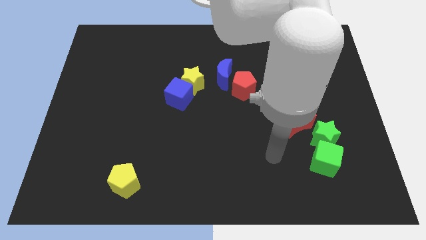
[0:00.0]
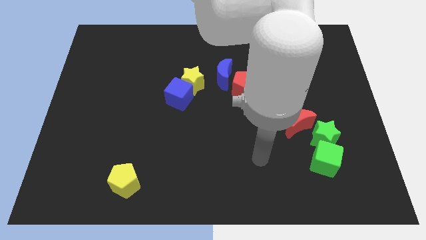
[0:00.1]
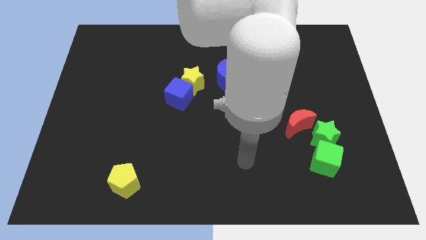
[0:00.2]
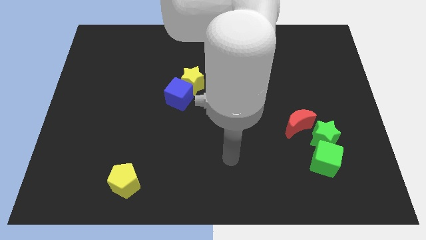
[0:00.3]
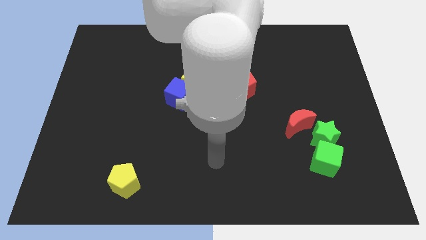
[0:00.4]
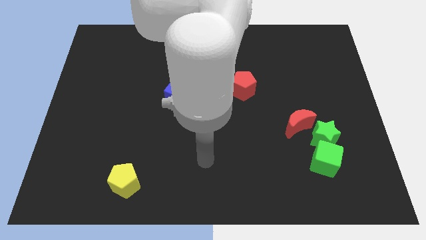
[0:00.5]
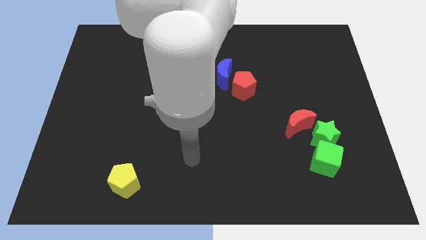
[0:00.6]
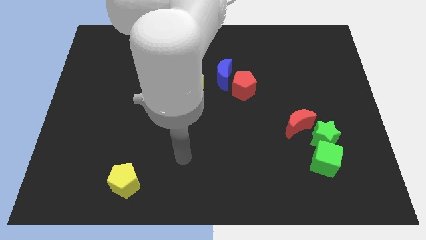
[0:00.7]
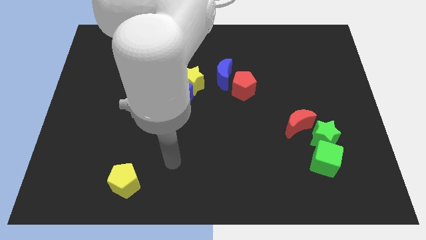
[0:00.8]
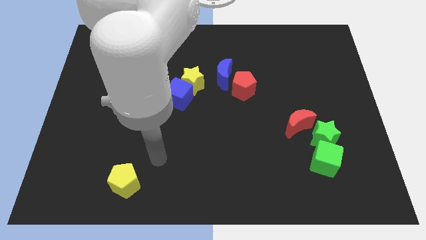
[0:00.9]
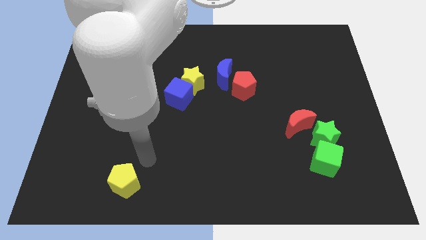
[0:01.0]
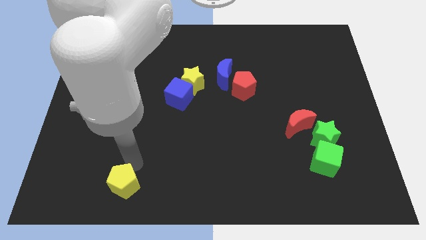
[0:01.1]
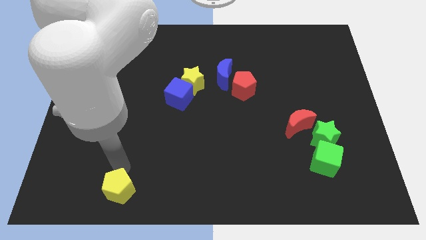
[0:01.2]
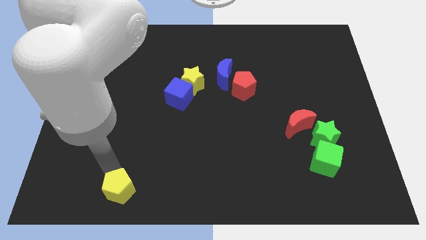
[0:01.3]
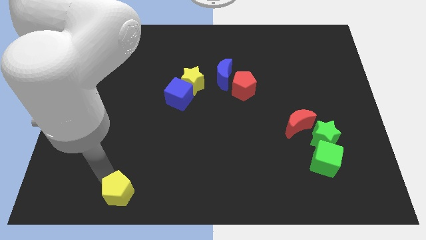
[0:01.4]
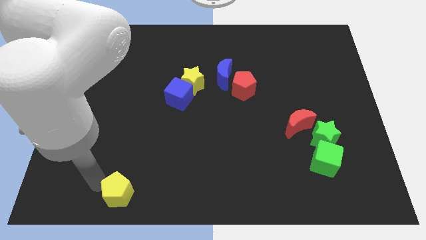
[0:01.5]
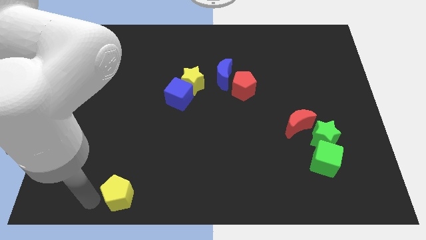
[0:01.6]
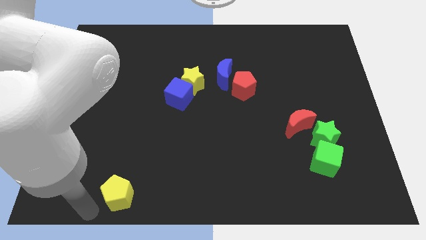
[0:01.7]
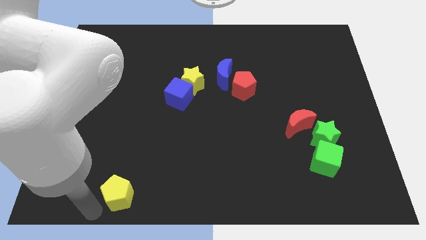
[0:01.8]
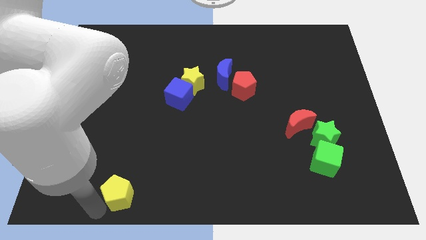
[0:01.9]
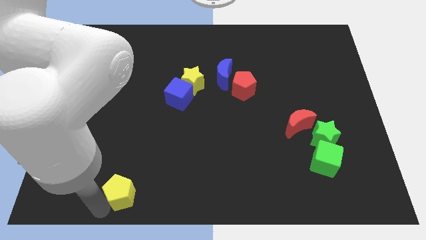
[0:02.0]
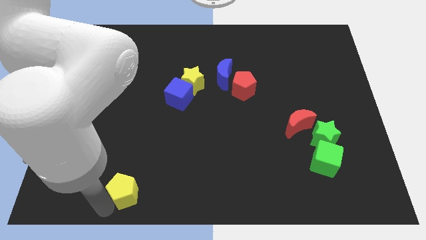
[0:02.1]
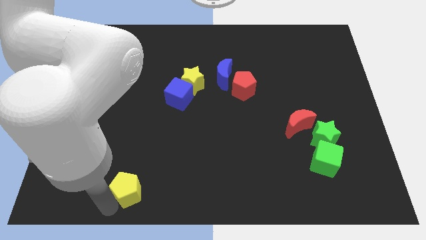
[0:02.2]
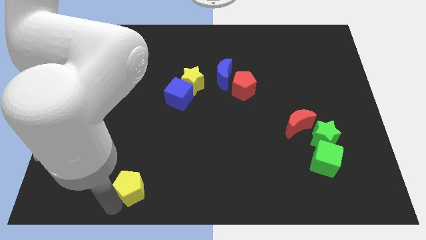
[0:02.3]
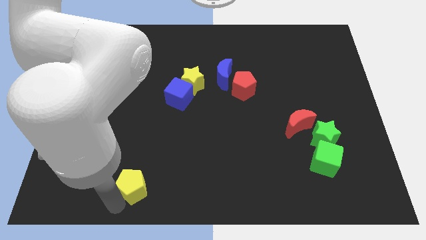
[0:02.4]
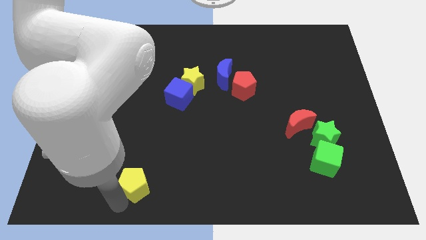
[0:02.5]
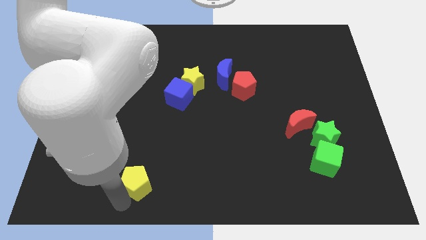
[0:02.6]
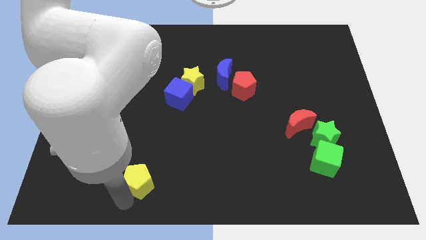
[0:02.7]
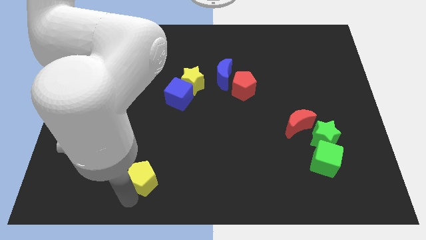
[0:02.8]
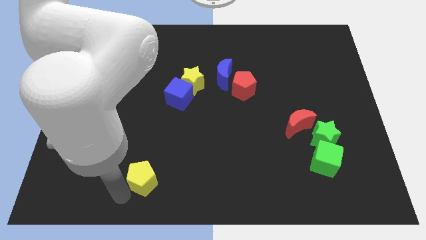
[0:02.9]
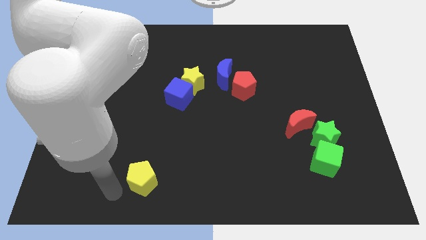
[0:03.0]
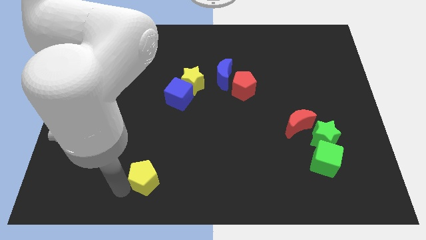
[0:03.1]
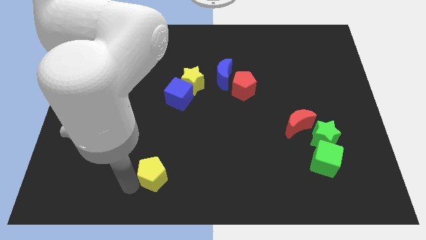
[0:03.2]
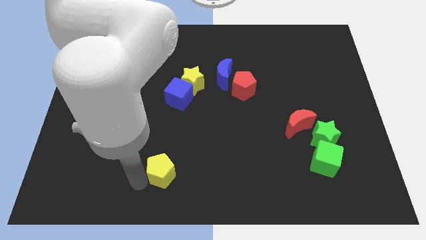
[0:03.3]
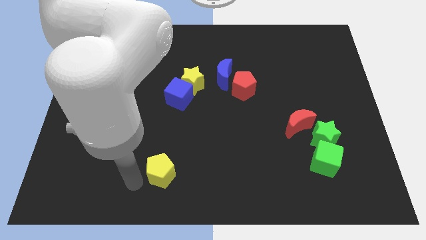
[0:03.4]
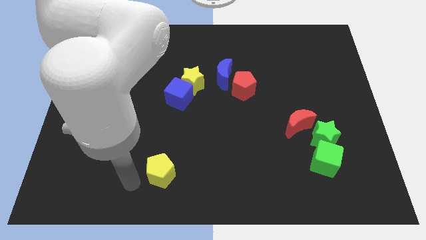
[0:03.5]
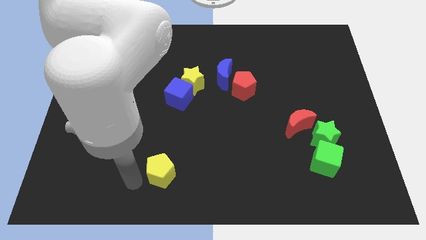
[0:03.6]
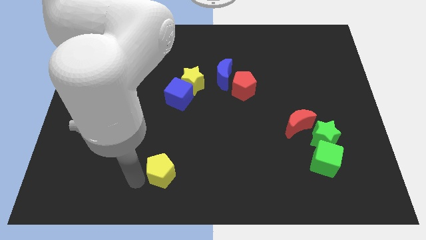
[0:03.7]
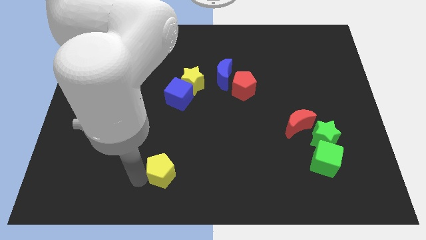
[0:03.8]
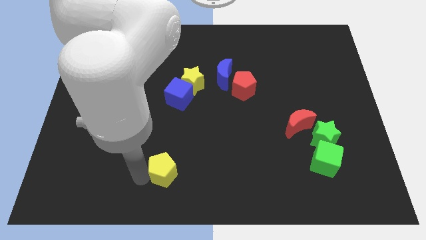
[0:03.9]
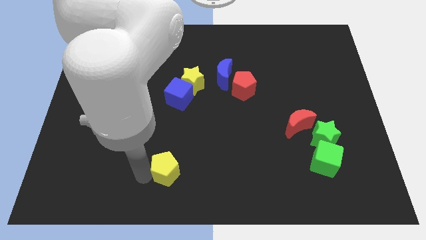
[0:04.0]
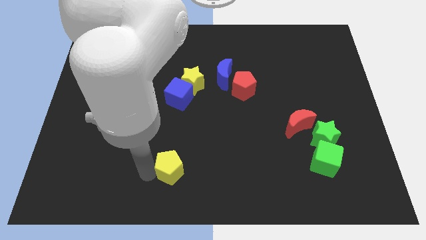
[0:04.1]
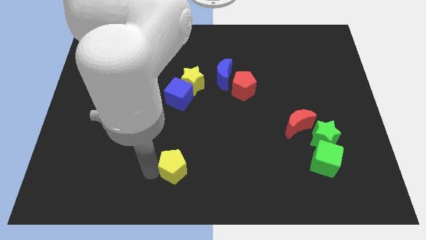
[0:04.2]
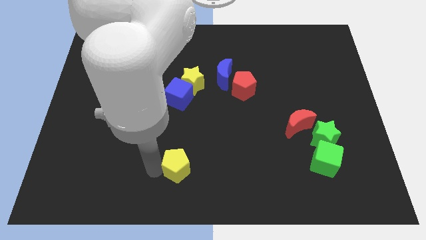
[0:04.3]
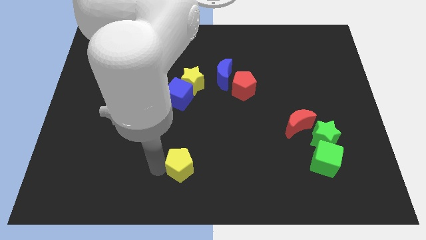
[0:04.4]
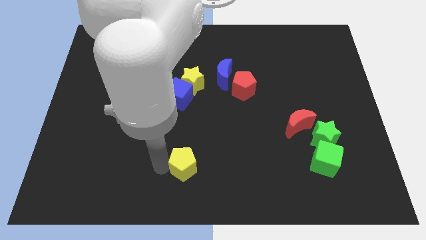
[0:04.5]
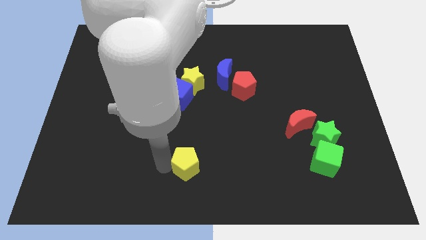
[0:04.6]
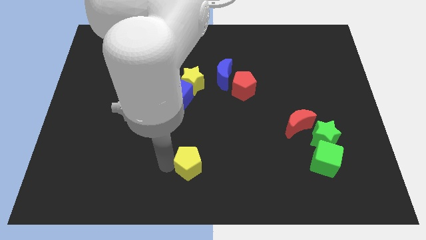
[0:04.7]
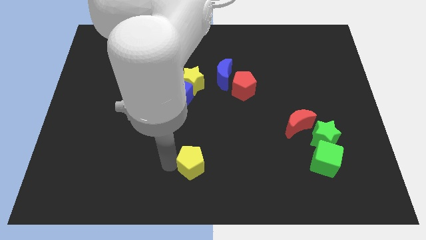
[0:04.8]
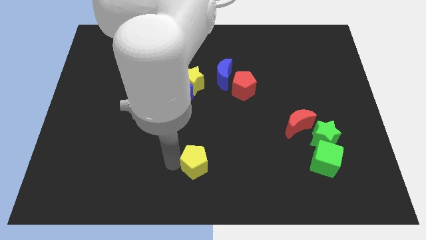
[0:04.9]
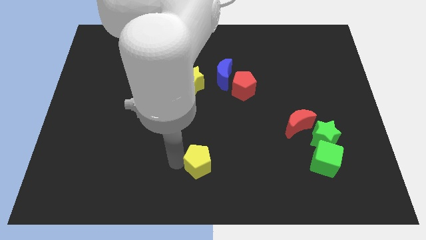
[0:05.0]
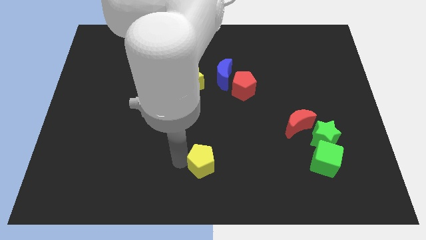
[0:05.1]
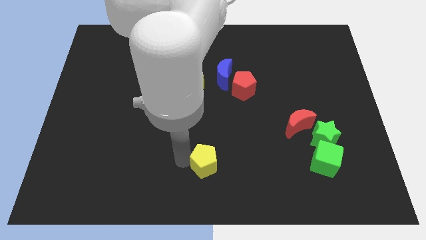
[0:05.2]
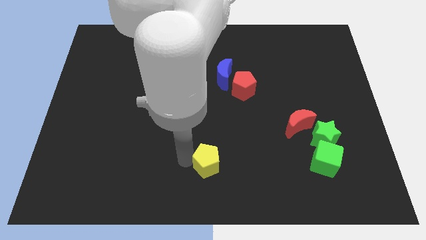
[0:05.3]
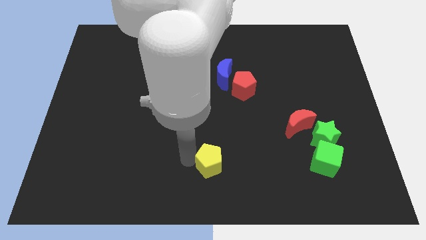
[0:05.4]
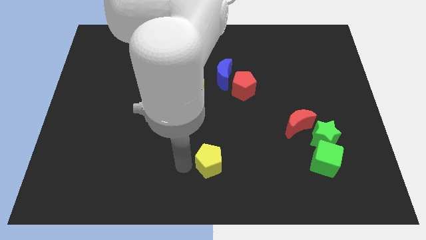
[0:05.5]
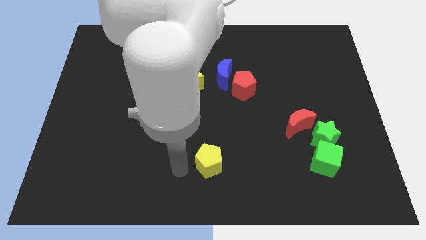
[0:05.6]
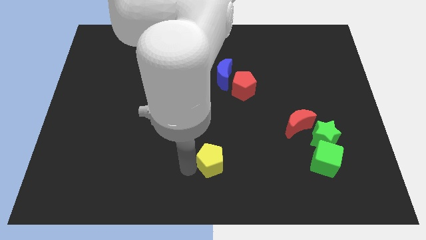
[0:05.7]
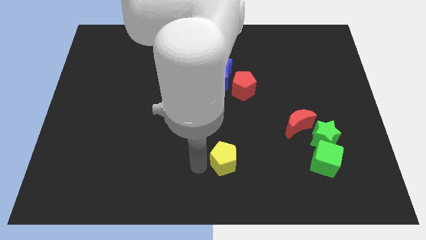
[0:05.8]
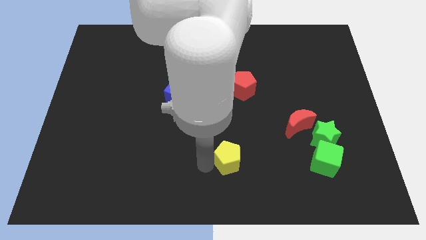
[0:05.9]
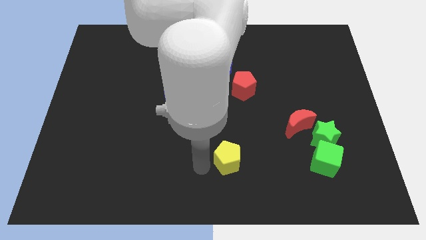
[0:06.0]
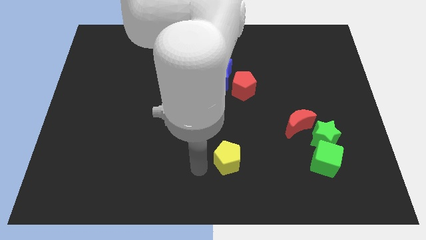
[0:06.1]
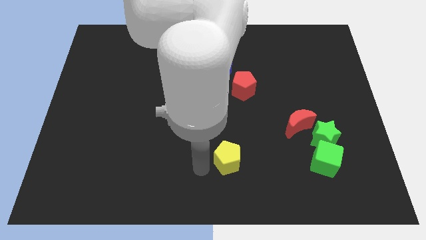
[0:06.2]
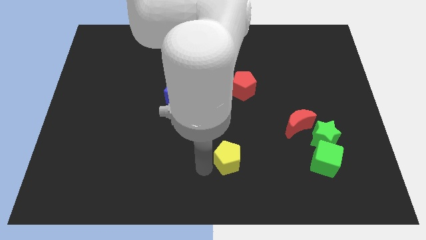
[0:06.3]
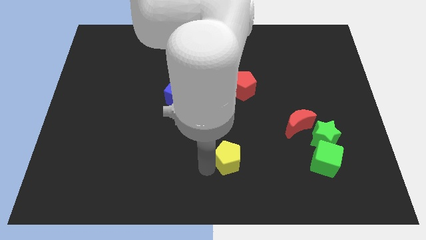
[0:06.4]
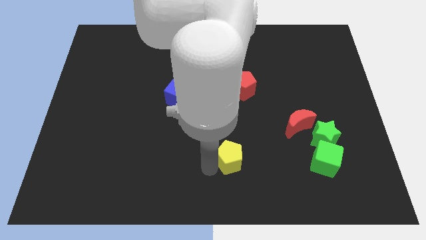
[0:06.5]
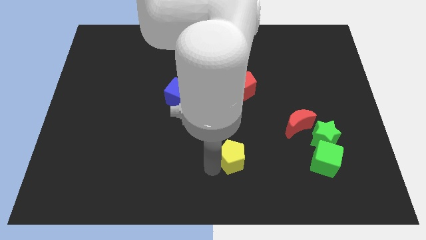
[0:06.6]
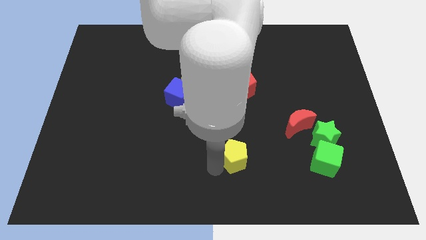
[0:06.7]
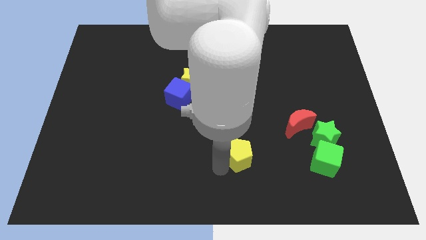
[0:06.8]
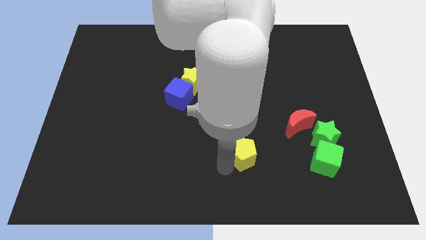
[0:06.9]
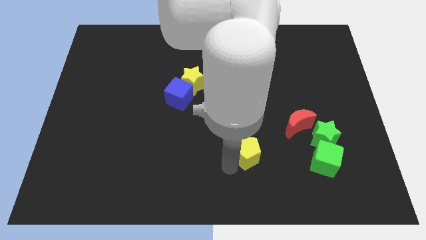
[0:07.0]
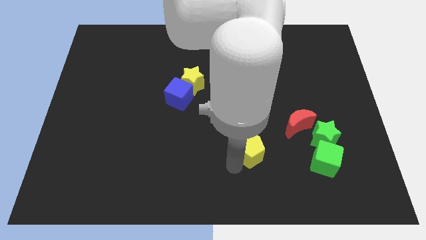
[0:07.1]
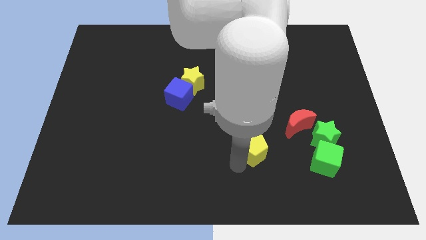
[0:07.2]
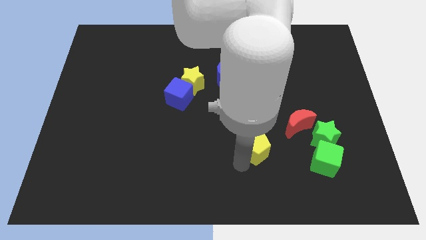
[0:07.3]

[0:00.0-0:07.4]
push the yellow pentagon to the left of the green star
